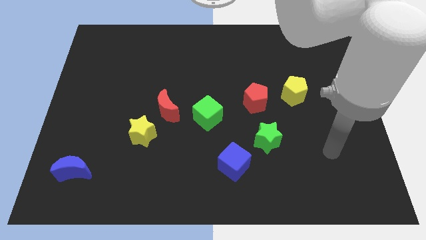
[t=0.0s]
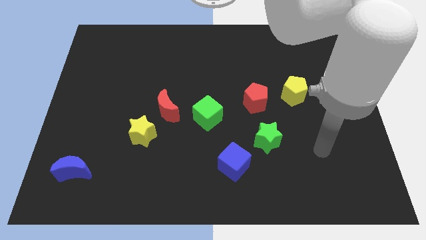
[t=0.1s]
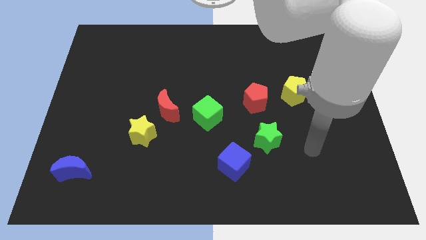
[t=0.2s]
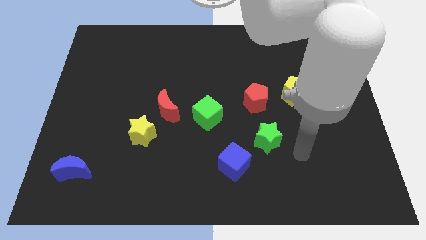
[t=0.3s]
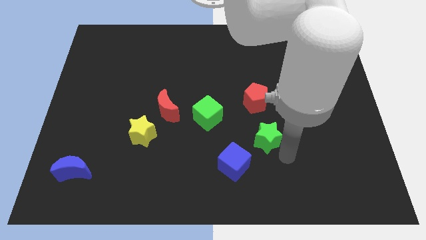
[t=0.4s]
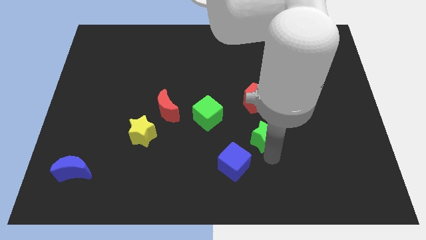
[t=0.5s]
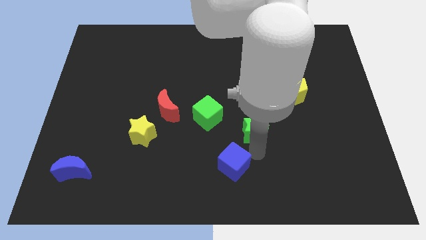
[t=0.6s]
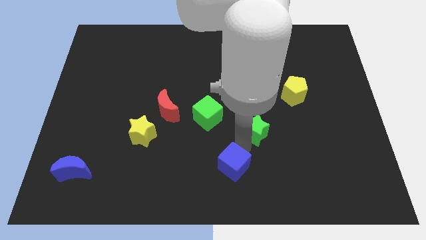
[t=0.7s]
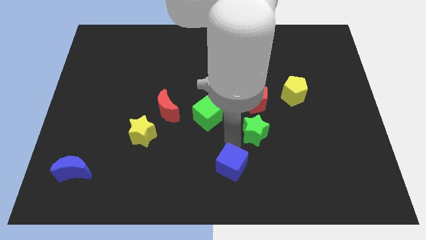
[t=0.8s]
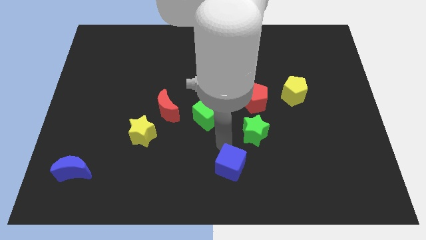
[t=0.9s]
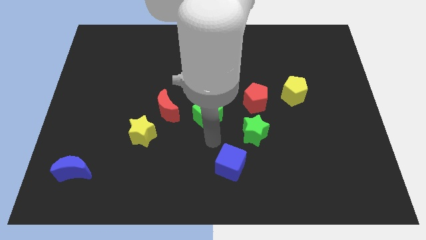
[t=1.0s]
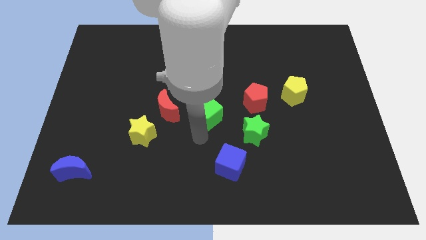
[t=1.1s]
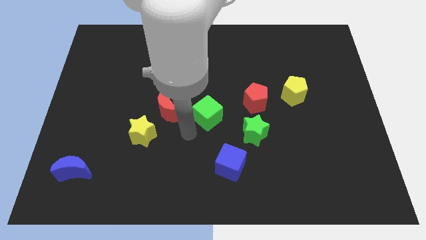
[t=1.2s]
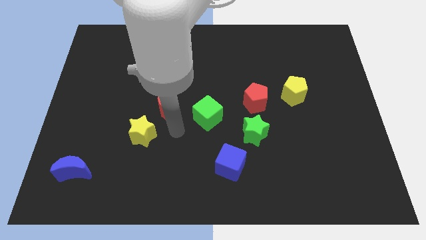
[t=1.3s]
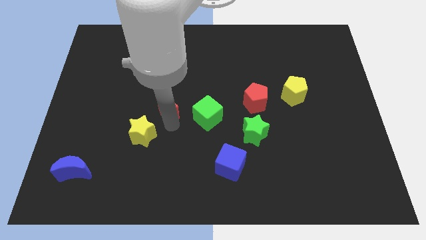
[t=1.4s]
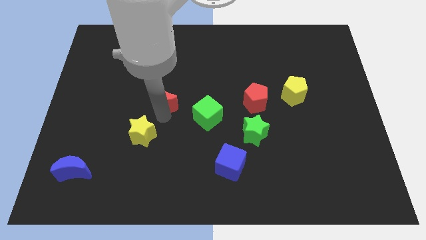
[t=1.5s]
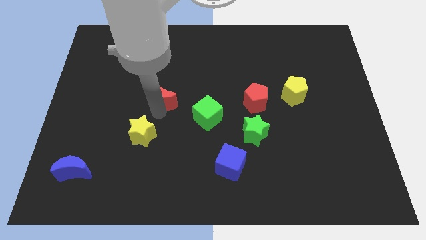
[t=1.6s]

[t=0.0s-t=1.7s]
separate the yellow star from the red moon

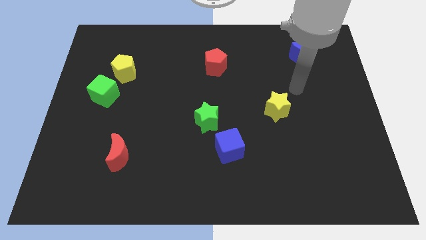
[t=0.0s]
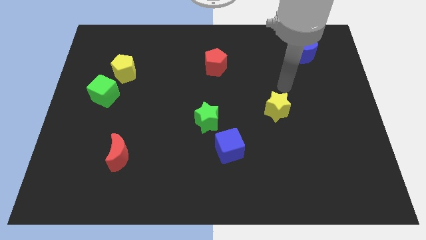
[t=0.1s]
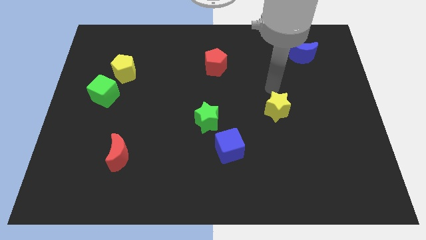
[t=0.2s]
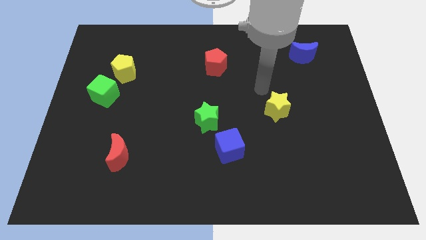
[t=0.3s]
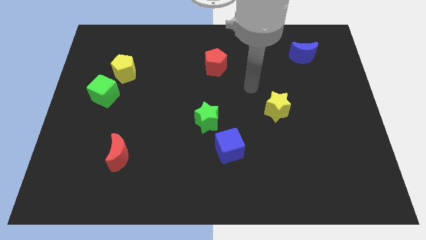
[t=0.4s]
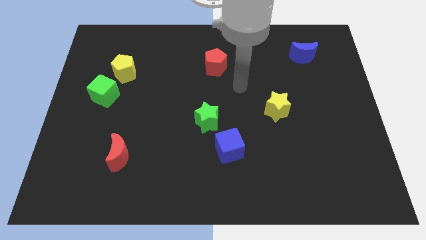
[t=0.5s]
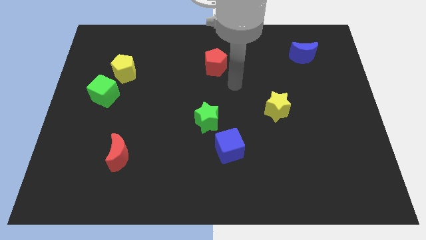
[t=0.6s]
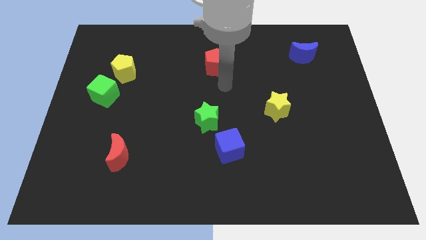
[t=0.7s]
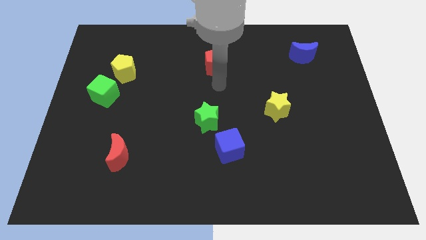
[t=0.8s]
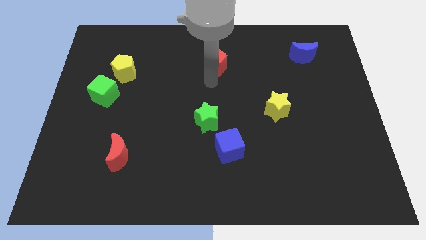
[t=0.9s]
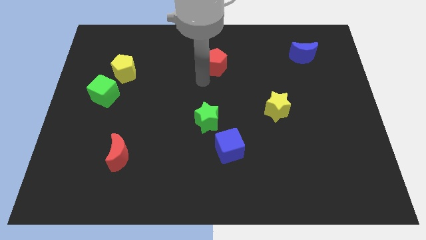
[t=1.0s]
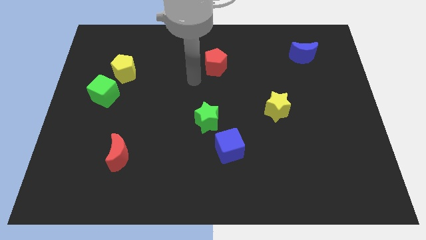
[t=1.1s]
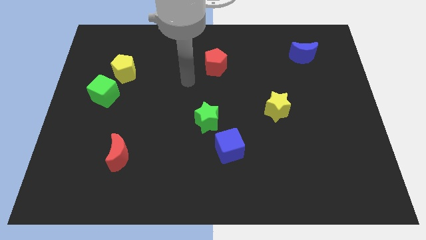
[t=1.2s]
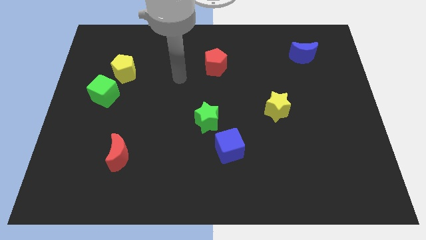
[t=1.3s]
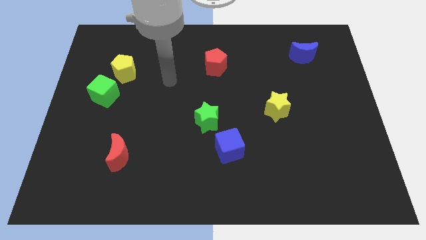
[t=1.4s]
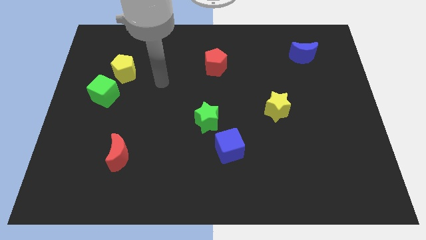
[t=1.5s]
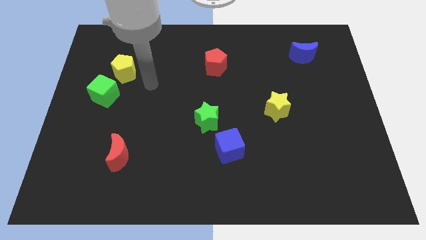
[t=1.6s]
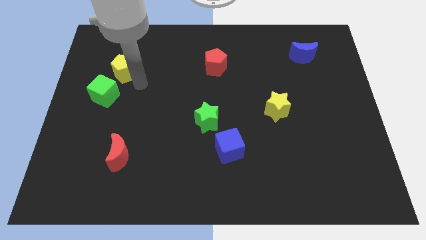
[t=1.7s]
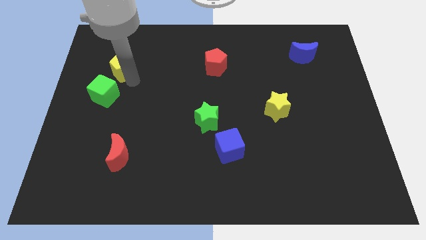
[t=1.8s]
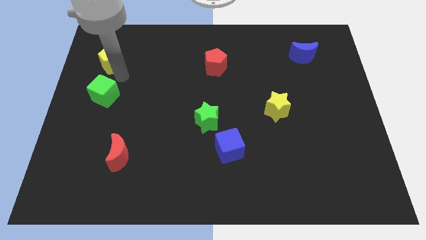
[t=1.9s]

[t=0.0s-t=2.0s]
pull the green cube apart from the yellow pentagon

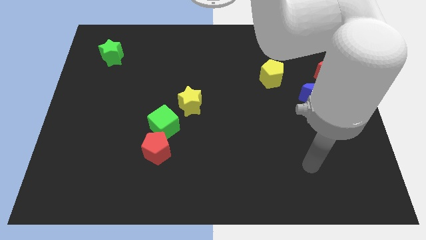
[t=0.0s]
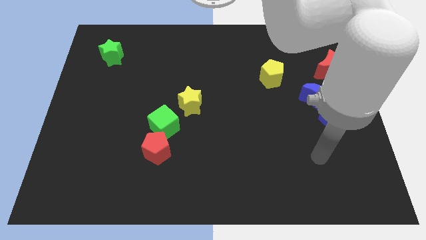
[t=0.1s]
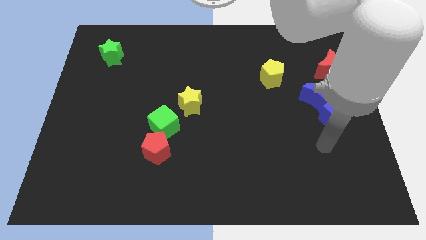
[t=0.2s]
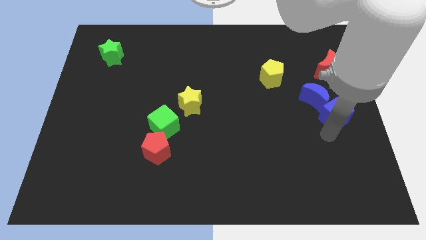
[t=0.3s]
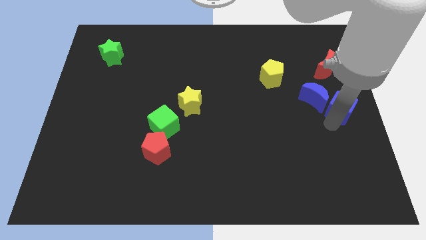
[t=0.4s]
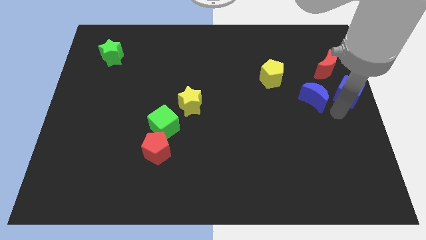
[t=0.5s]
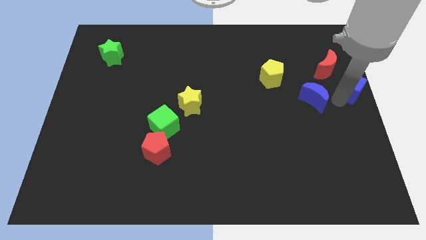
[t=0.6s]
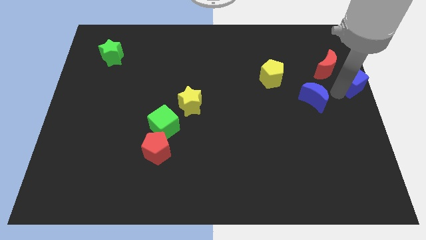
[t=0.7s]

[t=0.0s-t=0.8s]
separate the blue moon from the blue cube

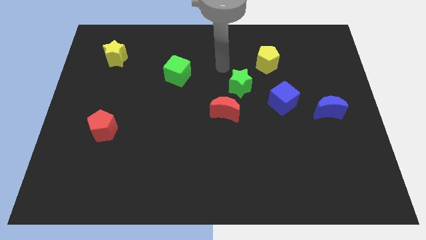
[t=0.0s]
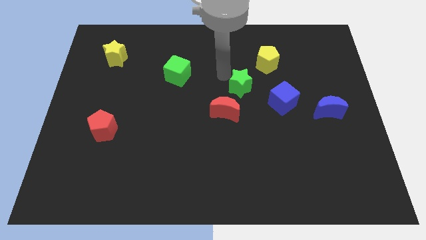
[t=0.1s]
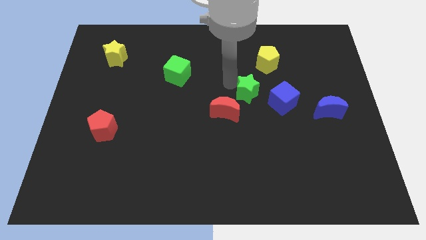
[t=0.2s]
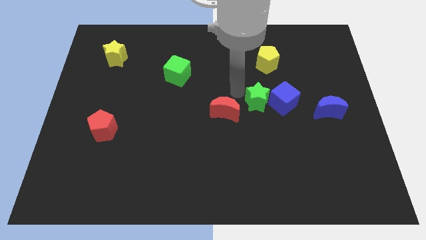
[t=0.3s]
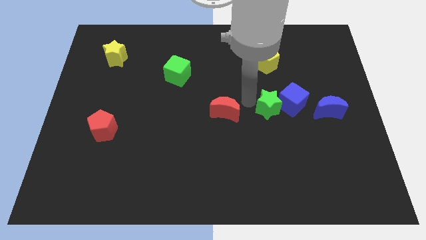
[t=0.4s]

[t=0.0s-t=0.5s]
separate the red moon from the green star

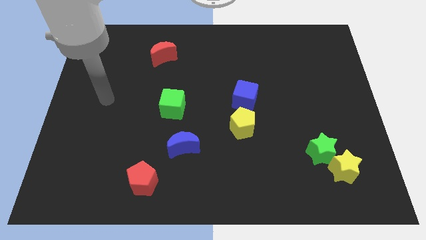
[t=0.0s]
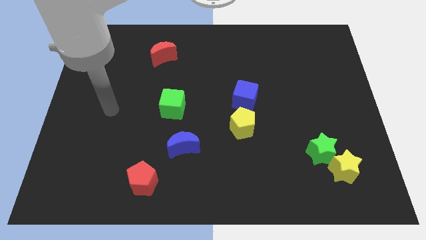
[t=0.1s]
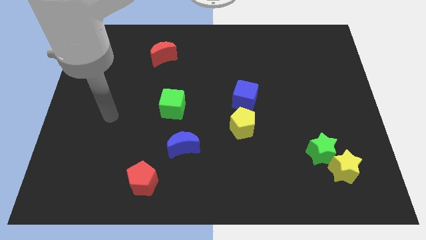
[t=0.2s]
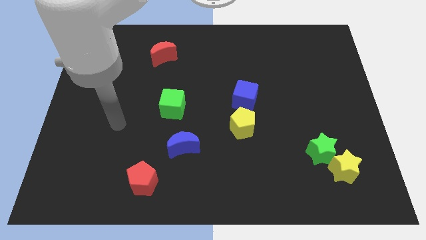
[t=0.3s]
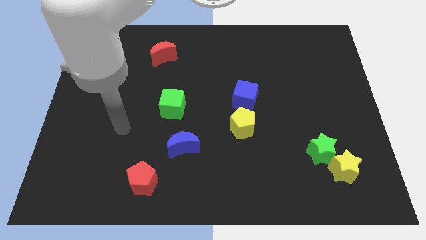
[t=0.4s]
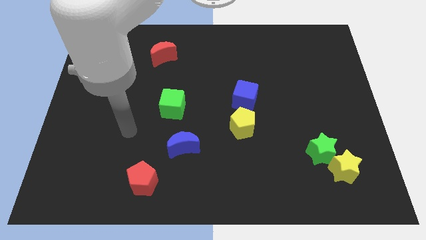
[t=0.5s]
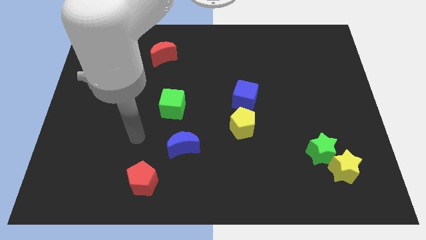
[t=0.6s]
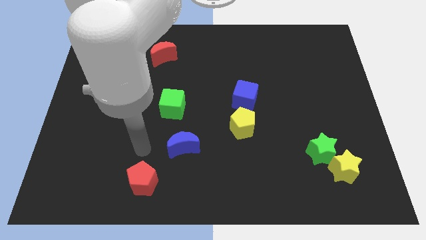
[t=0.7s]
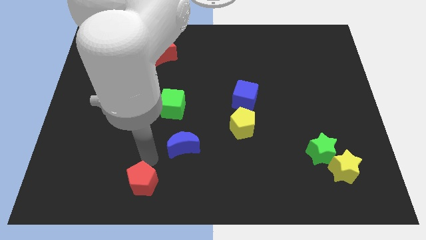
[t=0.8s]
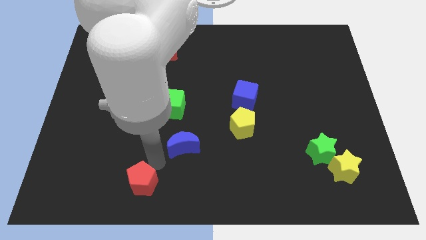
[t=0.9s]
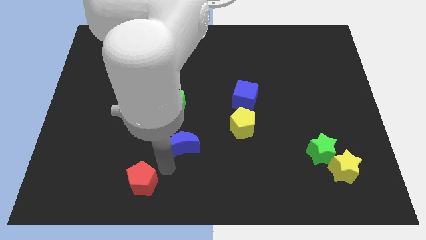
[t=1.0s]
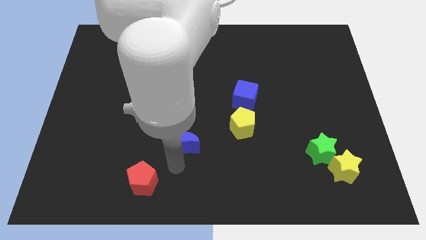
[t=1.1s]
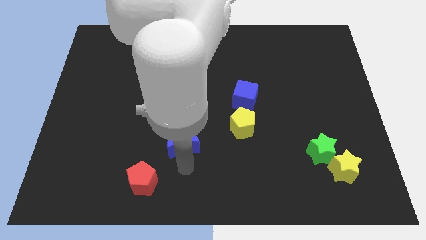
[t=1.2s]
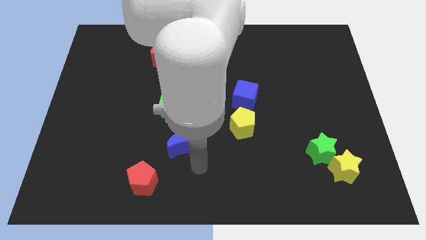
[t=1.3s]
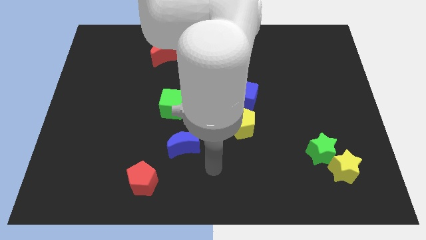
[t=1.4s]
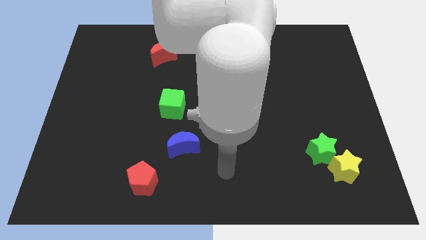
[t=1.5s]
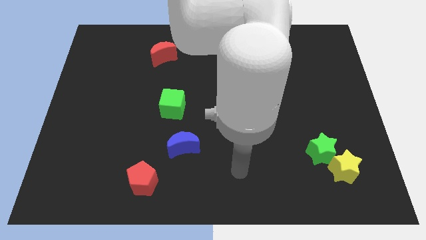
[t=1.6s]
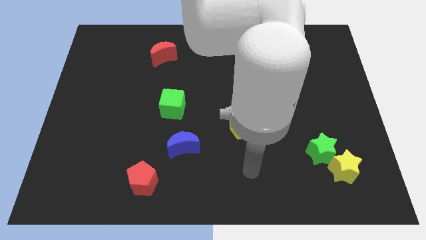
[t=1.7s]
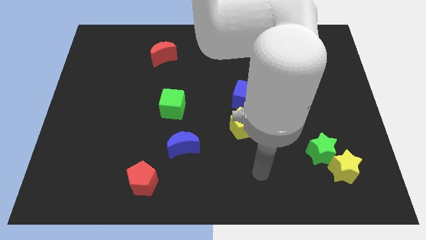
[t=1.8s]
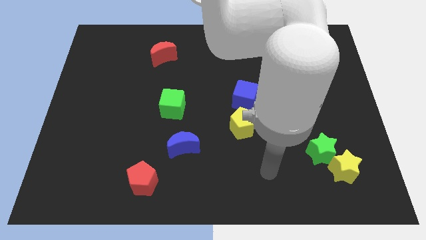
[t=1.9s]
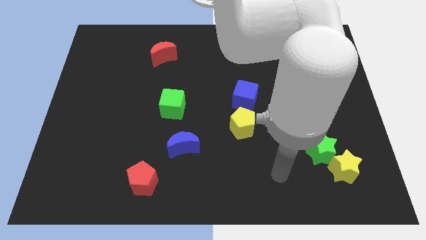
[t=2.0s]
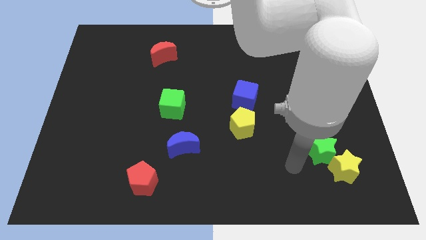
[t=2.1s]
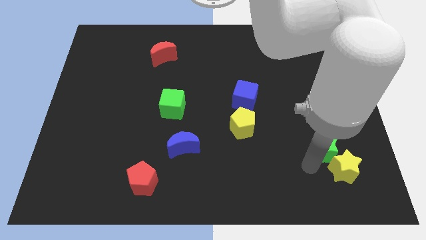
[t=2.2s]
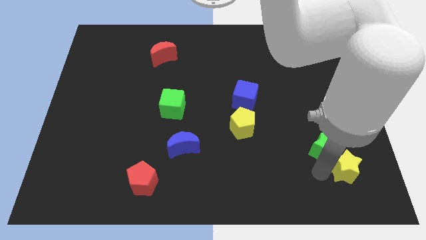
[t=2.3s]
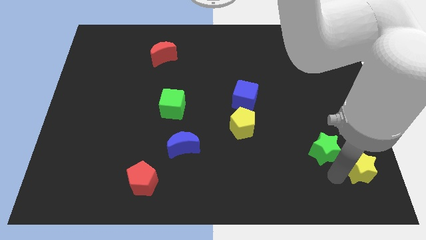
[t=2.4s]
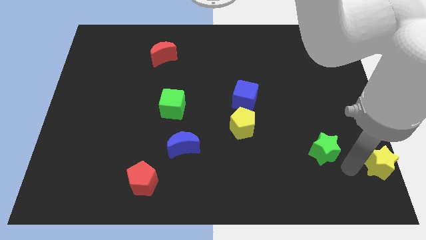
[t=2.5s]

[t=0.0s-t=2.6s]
pull the green star apart from the yellow star

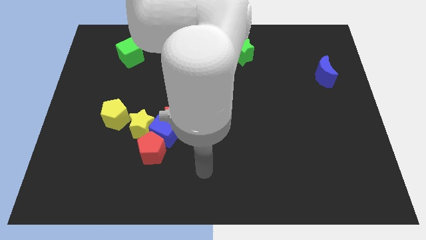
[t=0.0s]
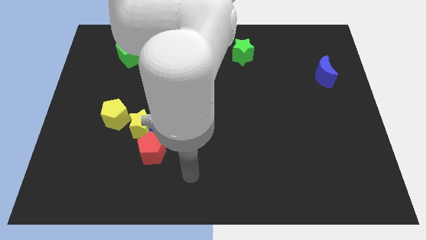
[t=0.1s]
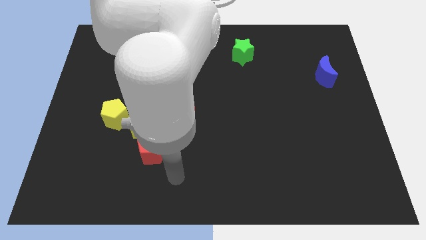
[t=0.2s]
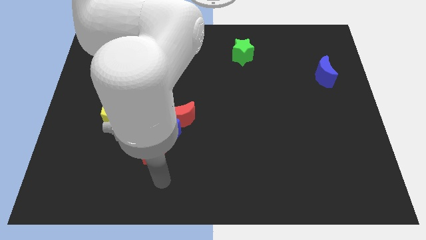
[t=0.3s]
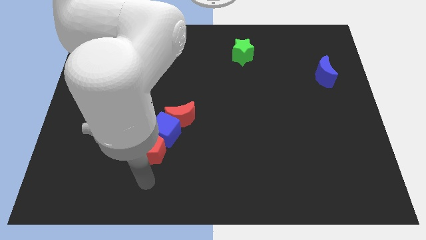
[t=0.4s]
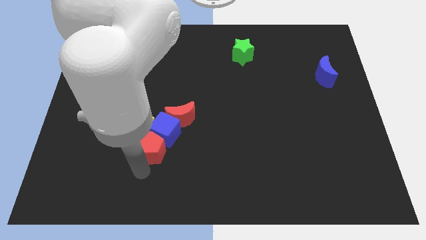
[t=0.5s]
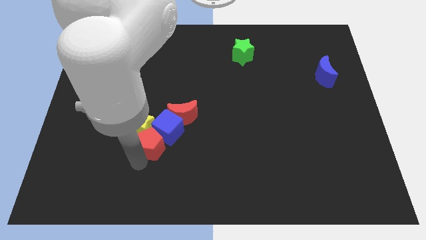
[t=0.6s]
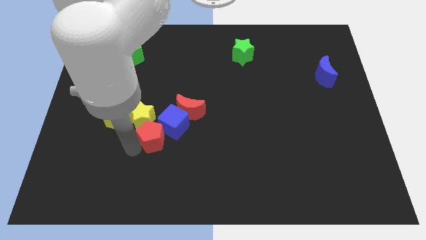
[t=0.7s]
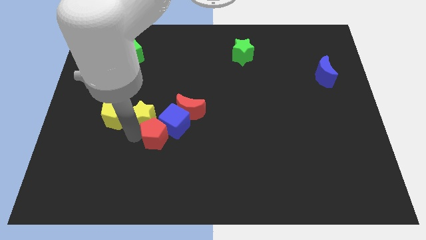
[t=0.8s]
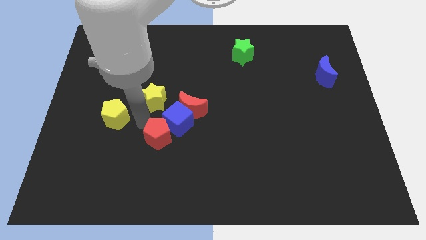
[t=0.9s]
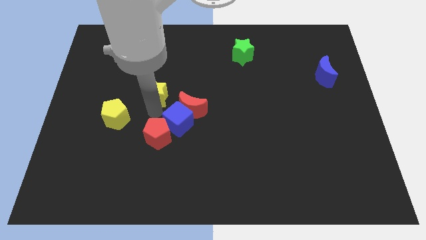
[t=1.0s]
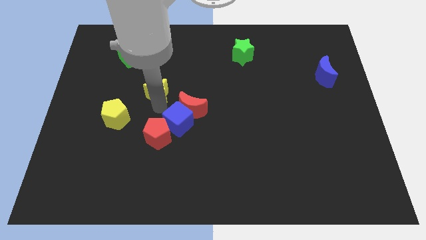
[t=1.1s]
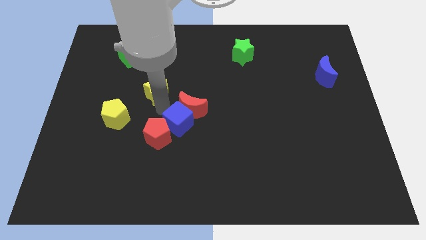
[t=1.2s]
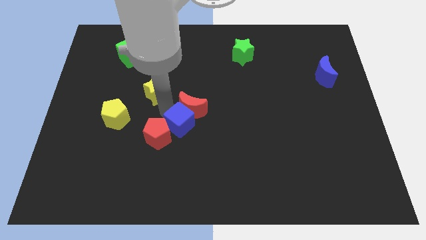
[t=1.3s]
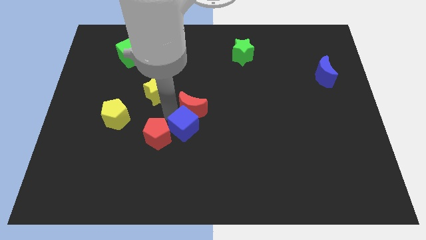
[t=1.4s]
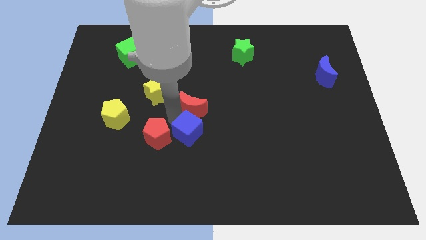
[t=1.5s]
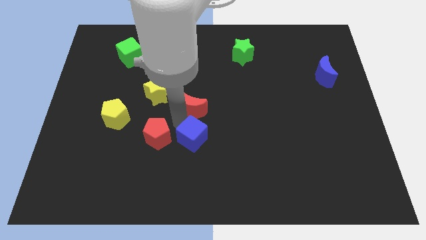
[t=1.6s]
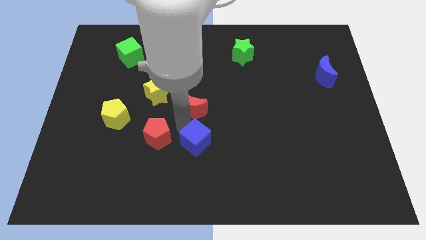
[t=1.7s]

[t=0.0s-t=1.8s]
pull the blue cube apart from the group of blocks
